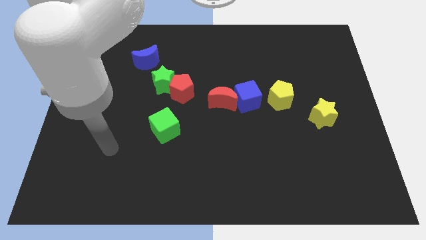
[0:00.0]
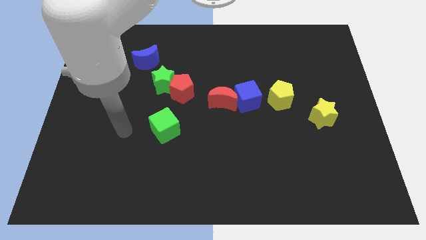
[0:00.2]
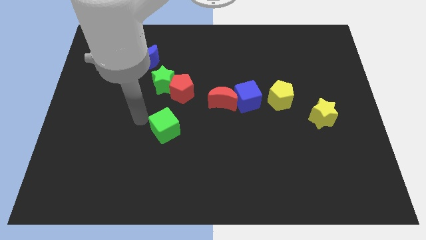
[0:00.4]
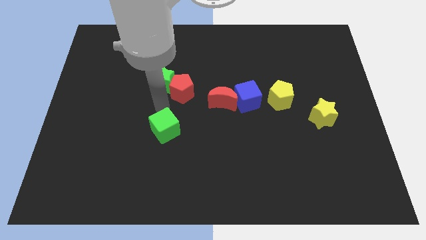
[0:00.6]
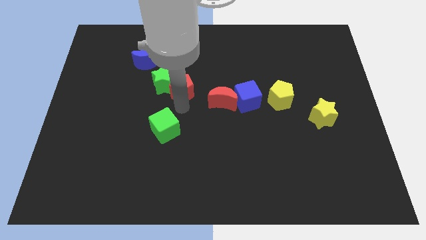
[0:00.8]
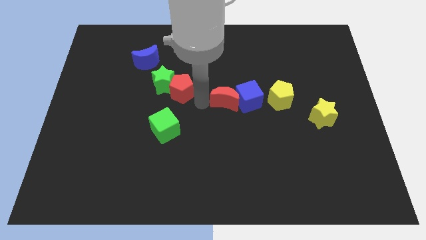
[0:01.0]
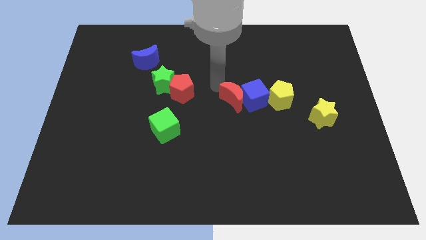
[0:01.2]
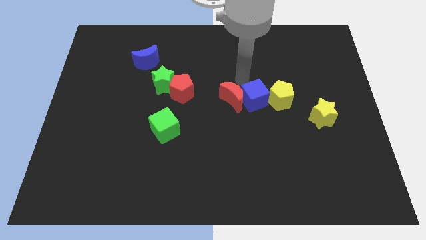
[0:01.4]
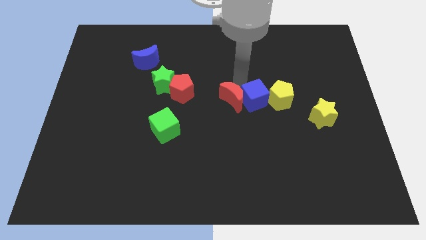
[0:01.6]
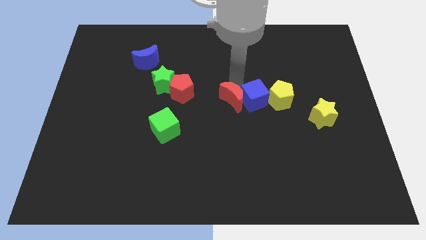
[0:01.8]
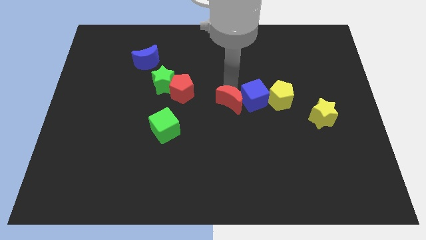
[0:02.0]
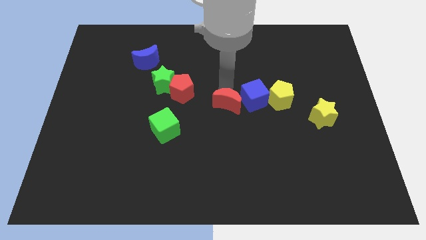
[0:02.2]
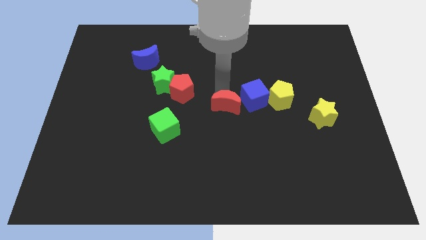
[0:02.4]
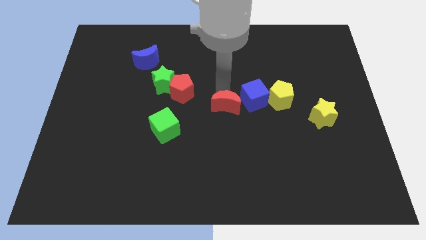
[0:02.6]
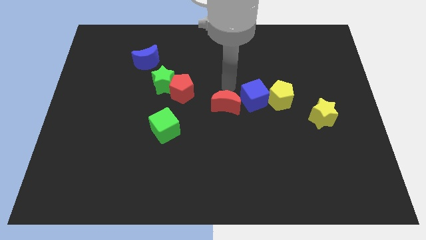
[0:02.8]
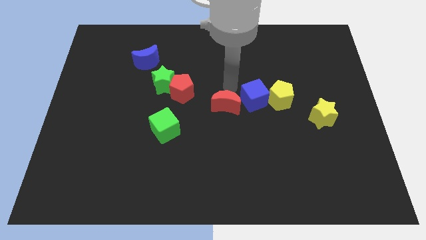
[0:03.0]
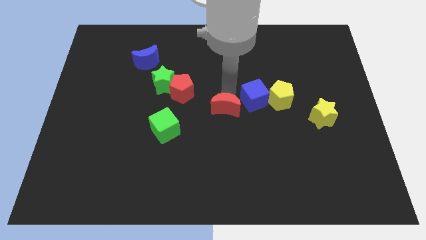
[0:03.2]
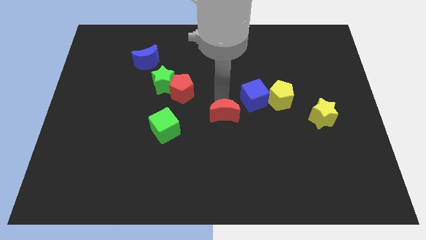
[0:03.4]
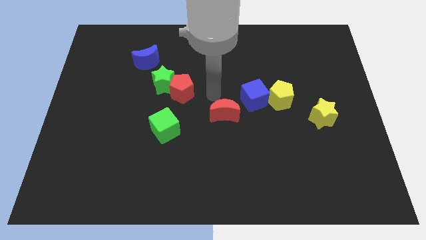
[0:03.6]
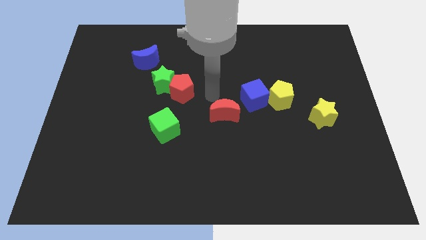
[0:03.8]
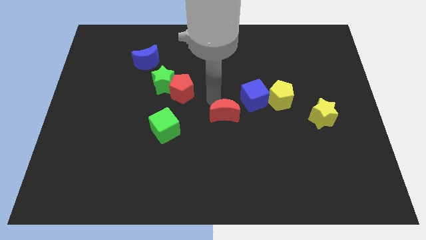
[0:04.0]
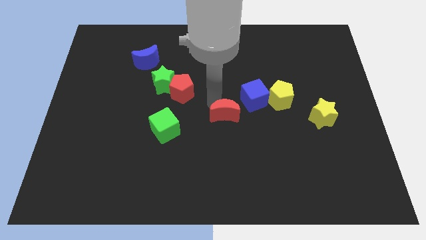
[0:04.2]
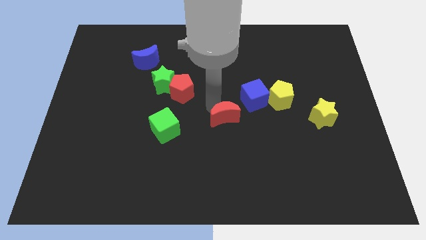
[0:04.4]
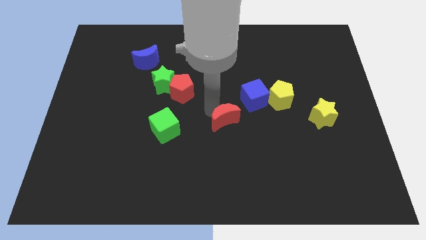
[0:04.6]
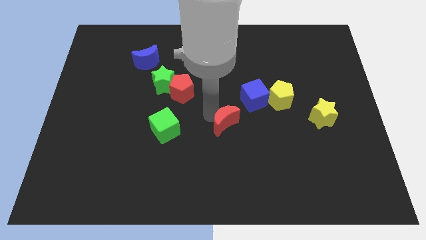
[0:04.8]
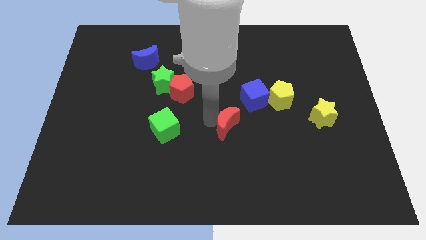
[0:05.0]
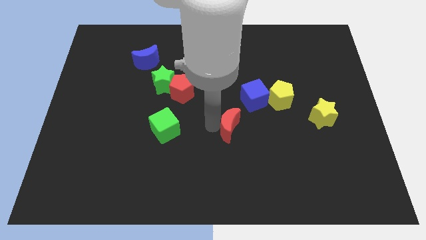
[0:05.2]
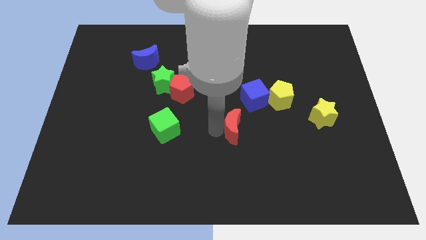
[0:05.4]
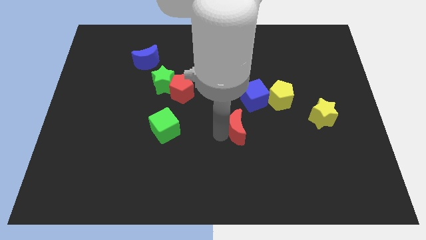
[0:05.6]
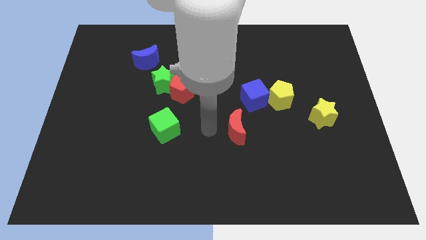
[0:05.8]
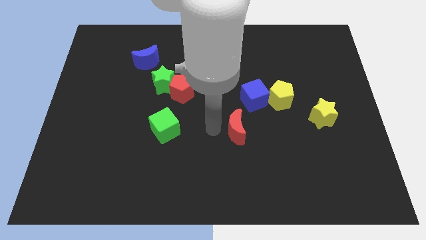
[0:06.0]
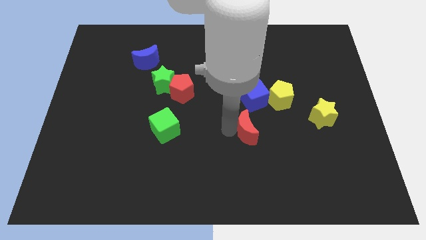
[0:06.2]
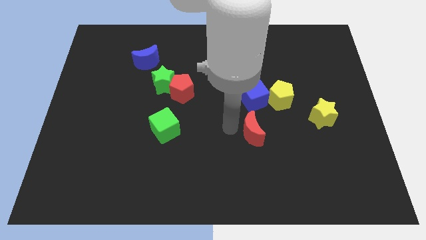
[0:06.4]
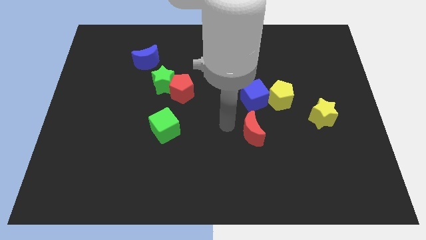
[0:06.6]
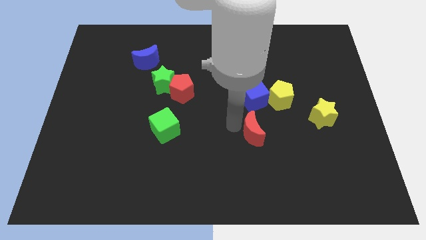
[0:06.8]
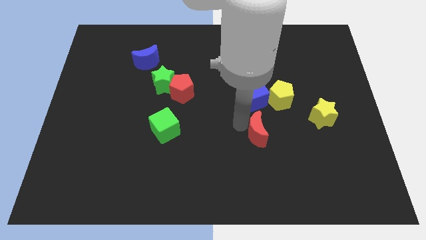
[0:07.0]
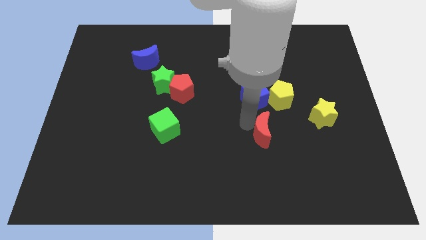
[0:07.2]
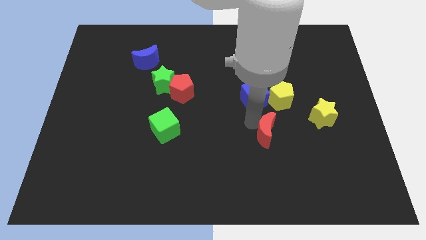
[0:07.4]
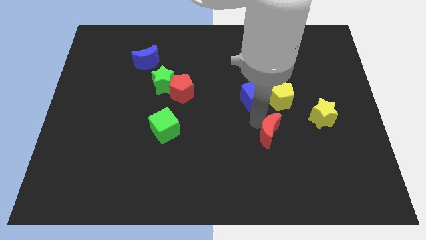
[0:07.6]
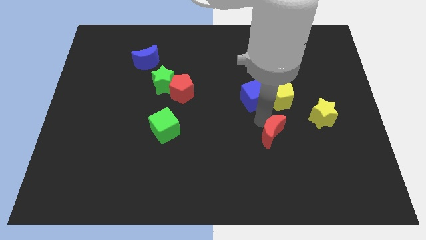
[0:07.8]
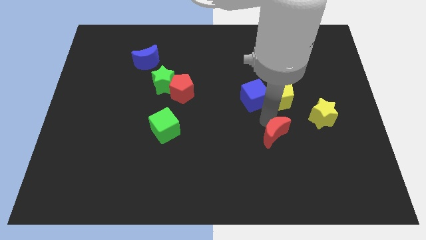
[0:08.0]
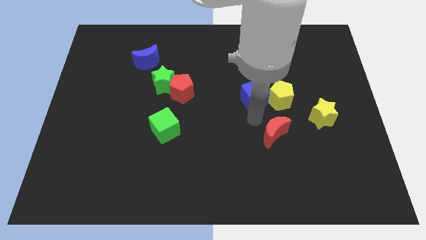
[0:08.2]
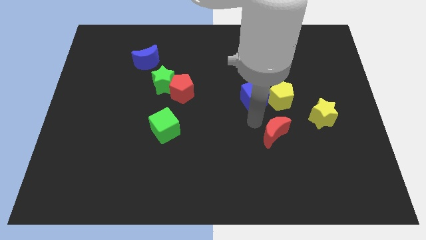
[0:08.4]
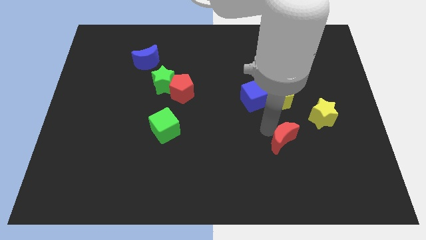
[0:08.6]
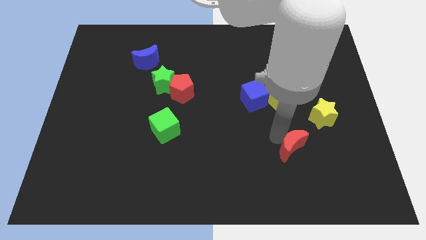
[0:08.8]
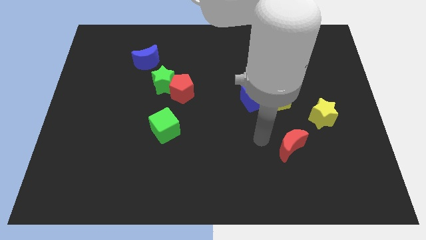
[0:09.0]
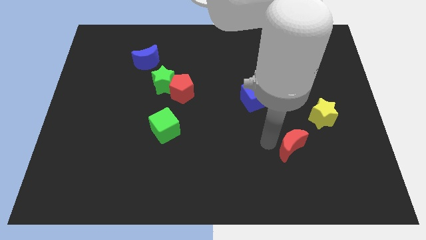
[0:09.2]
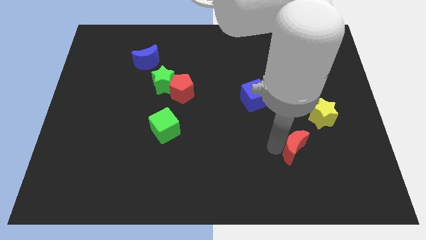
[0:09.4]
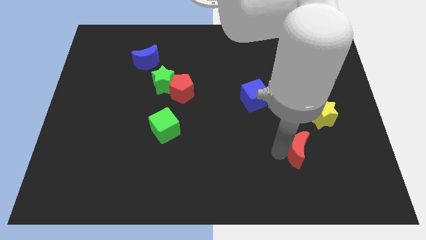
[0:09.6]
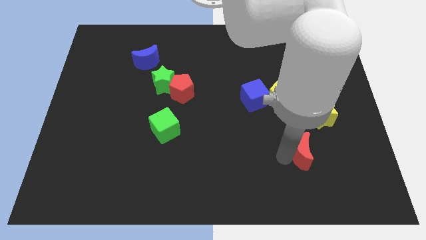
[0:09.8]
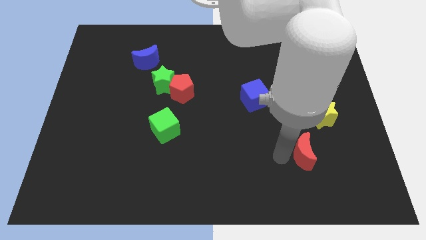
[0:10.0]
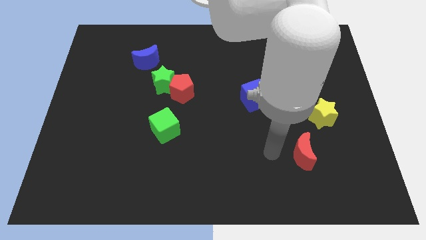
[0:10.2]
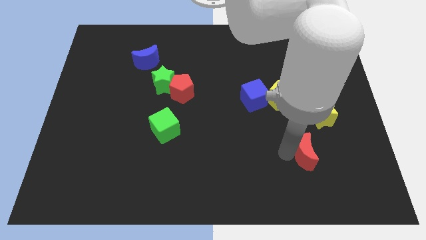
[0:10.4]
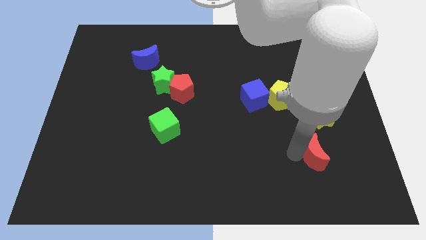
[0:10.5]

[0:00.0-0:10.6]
move the red moon to the bottom side of the yellow star

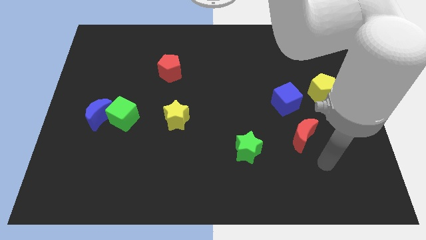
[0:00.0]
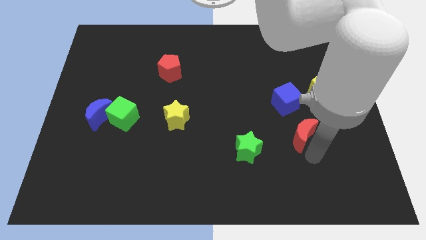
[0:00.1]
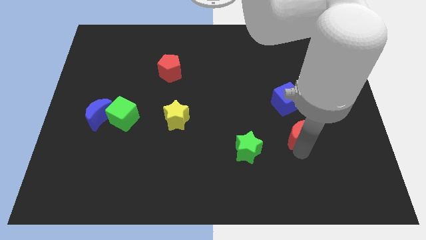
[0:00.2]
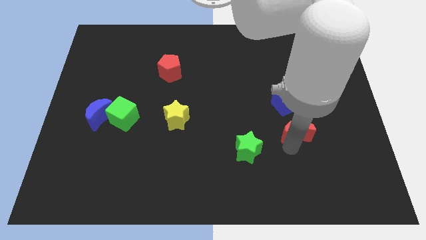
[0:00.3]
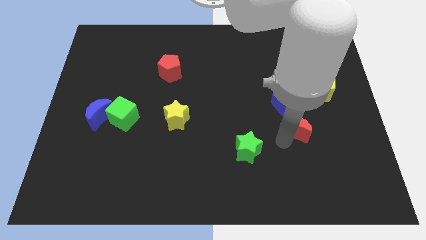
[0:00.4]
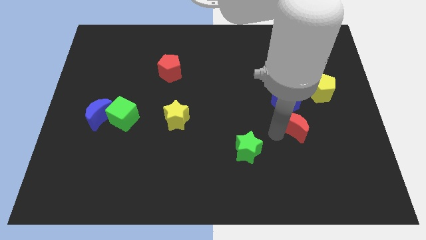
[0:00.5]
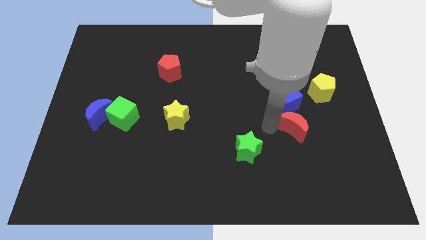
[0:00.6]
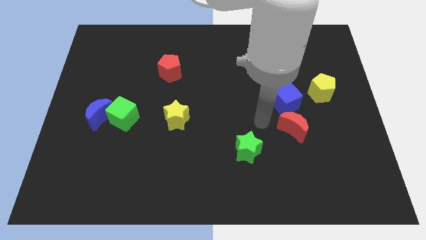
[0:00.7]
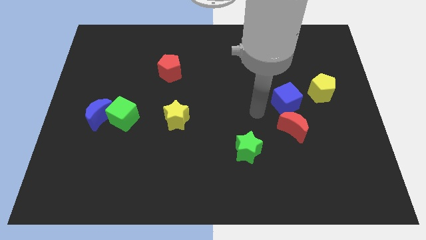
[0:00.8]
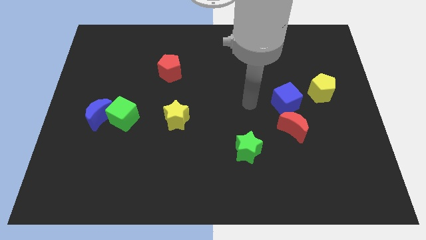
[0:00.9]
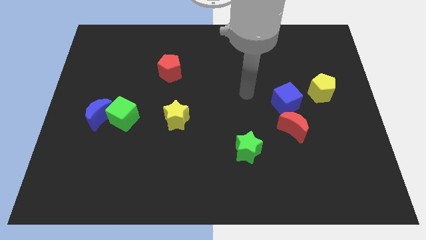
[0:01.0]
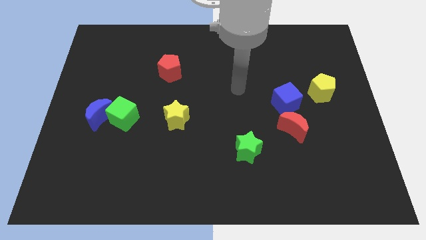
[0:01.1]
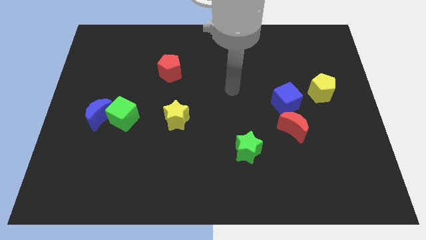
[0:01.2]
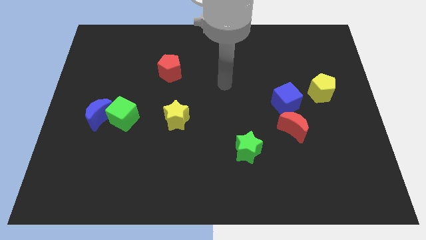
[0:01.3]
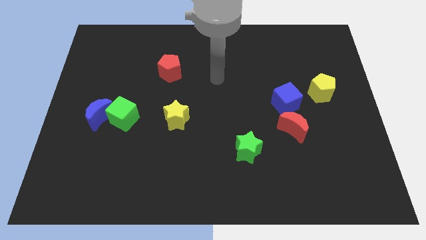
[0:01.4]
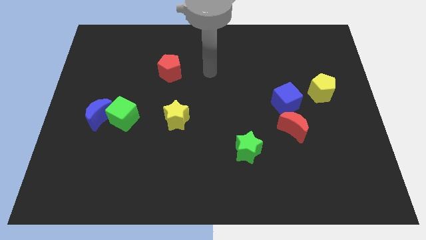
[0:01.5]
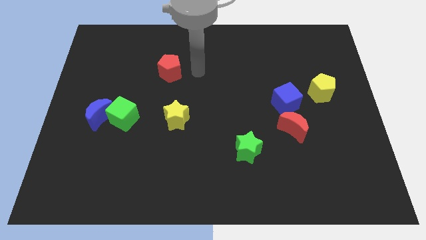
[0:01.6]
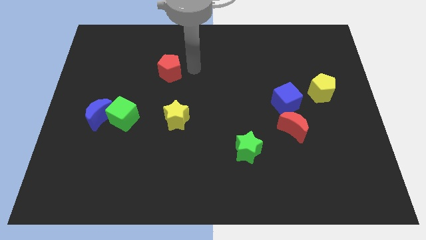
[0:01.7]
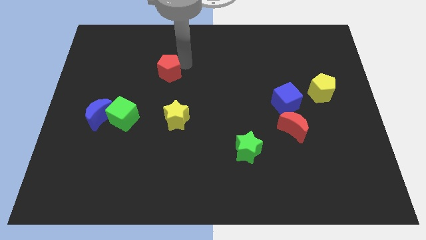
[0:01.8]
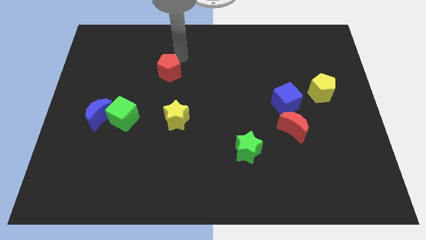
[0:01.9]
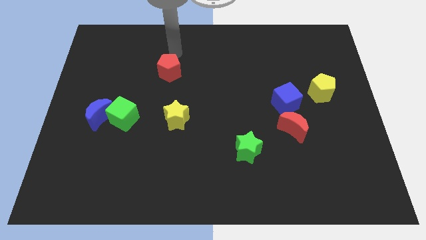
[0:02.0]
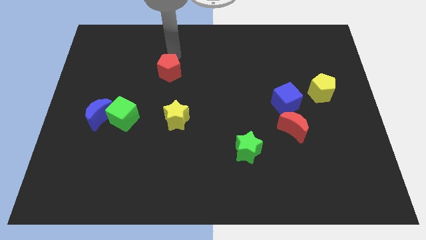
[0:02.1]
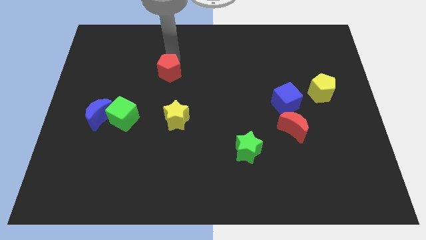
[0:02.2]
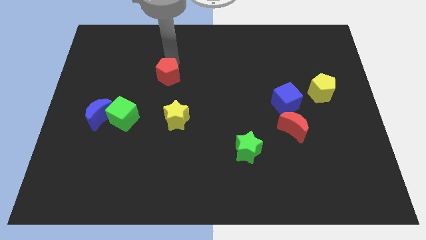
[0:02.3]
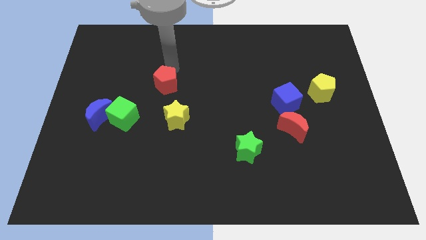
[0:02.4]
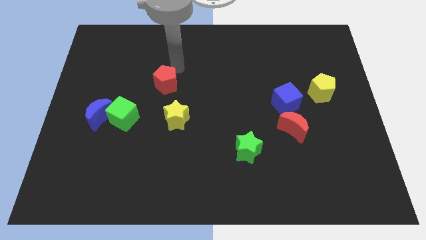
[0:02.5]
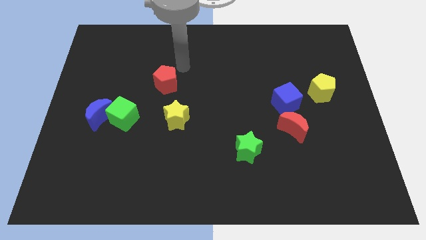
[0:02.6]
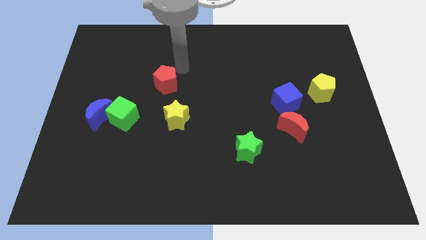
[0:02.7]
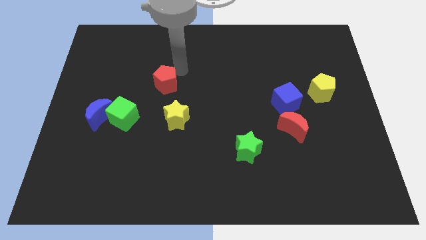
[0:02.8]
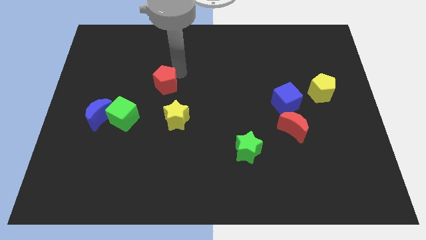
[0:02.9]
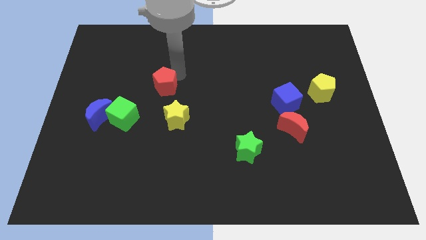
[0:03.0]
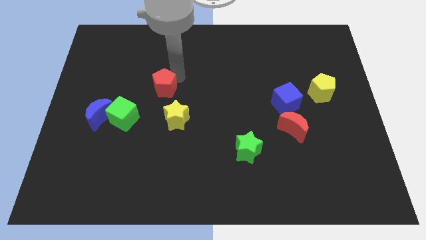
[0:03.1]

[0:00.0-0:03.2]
put the red pentagon to the top right side of the green cube
